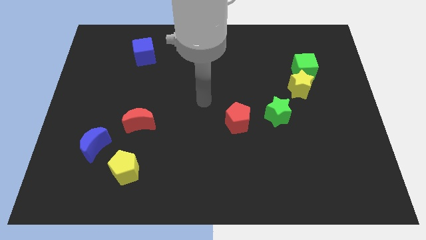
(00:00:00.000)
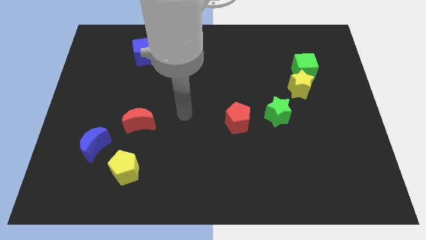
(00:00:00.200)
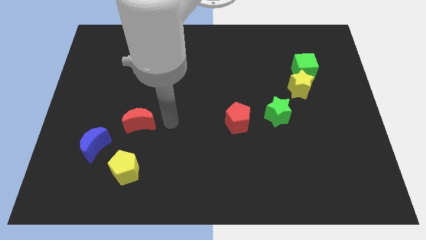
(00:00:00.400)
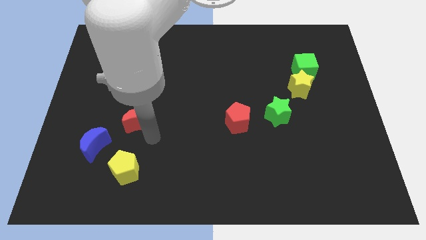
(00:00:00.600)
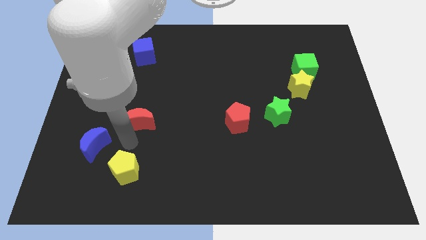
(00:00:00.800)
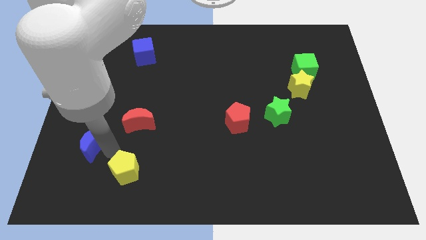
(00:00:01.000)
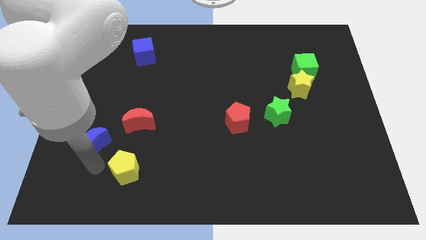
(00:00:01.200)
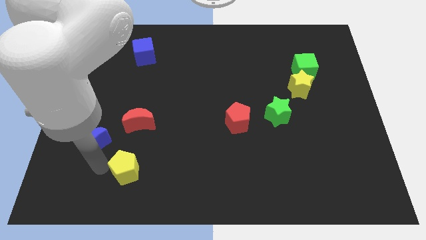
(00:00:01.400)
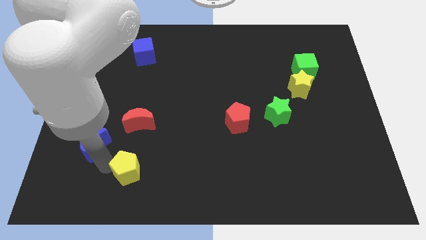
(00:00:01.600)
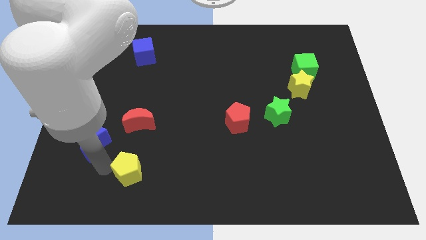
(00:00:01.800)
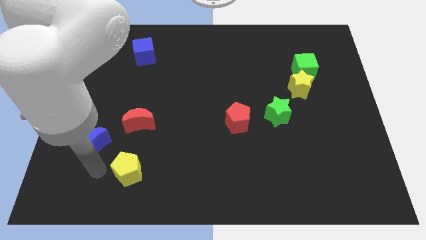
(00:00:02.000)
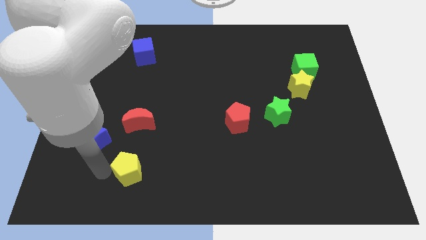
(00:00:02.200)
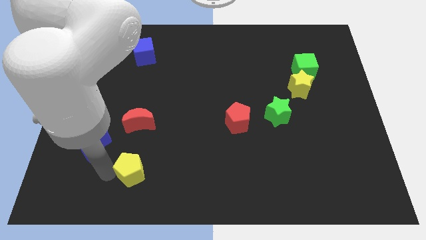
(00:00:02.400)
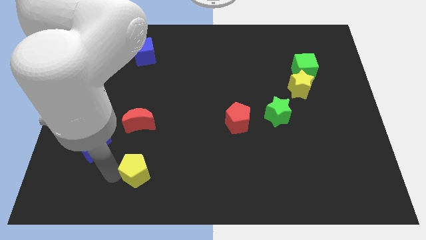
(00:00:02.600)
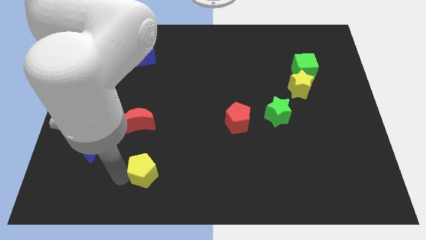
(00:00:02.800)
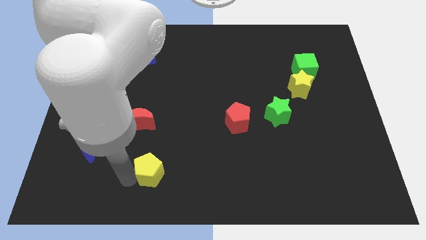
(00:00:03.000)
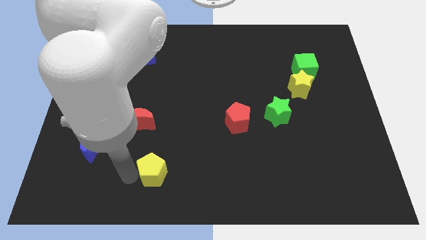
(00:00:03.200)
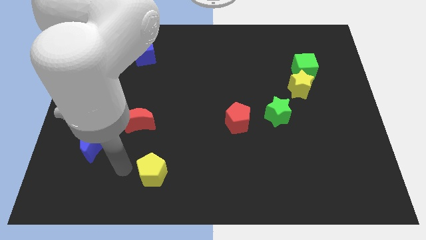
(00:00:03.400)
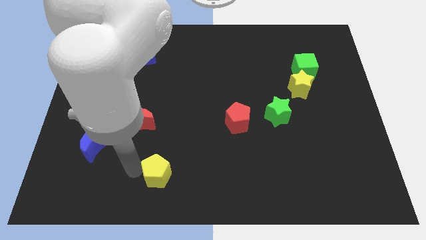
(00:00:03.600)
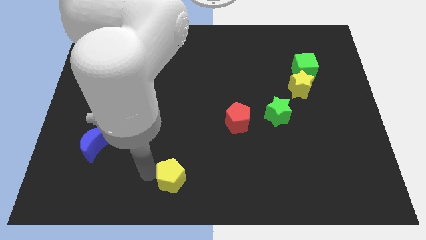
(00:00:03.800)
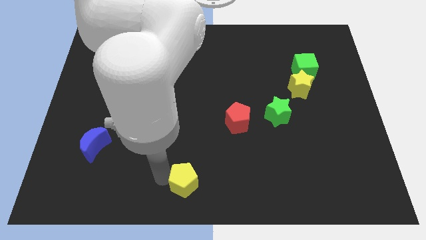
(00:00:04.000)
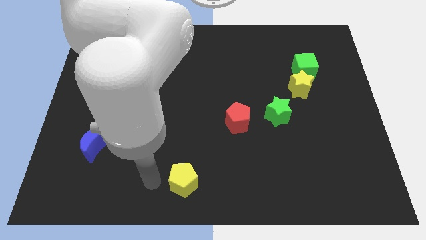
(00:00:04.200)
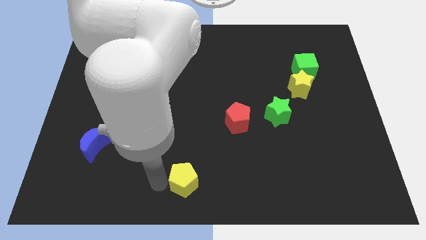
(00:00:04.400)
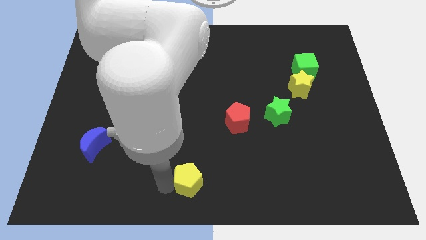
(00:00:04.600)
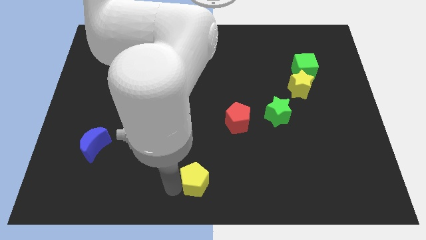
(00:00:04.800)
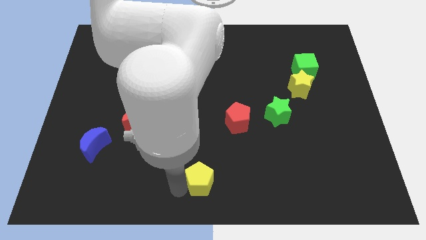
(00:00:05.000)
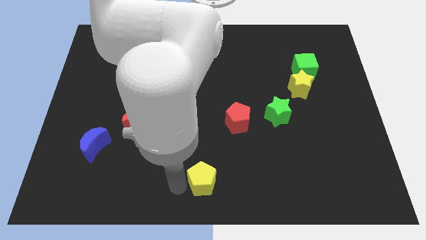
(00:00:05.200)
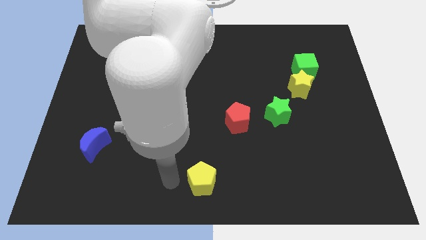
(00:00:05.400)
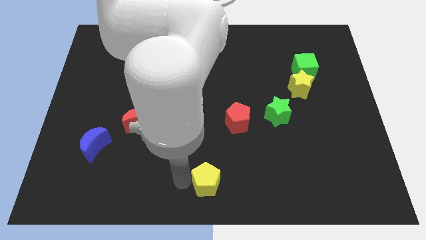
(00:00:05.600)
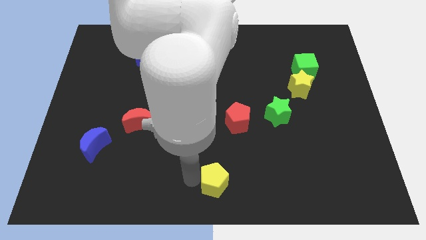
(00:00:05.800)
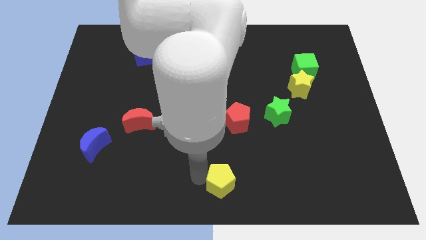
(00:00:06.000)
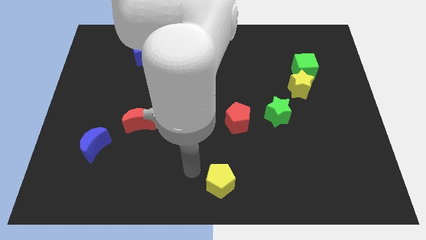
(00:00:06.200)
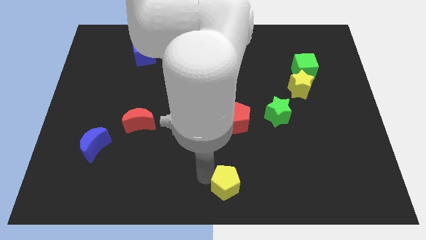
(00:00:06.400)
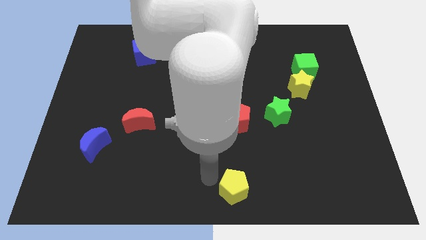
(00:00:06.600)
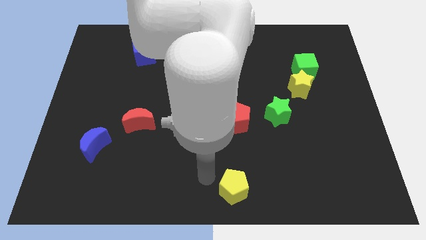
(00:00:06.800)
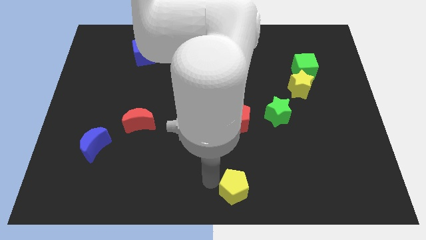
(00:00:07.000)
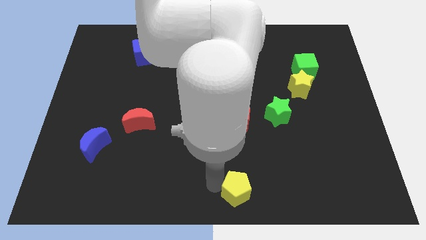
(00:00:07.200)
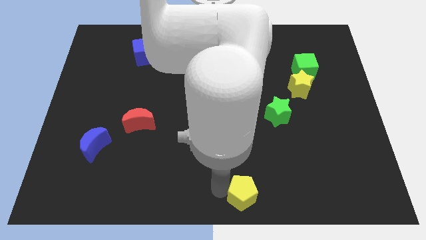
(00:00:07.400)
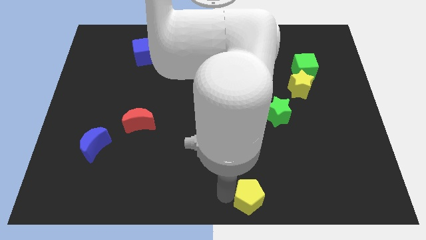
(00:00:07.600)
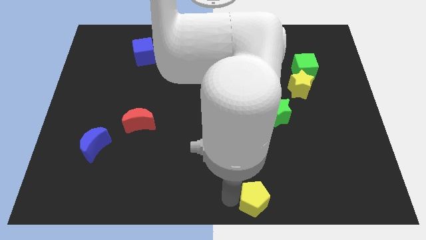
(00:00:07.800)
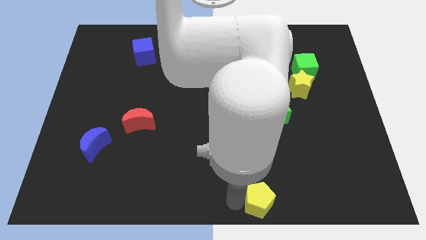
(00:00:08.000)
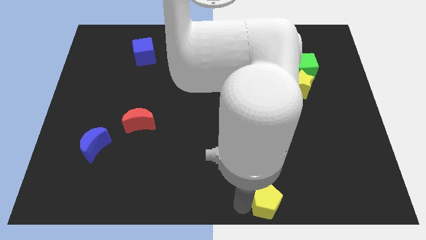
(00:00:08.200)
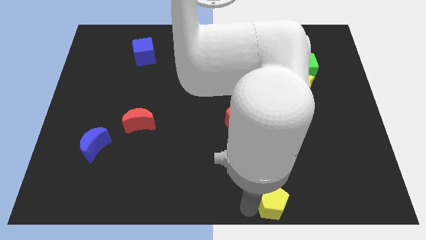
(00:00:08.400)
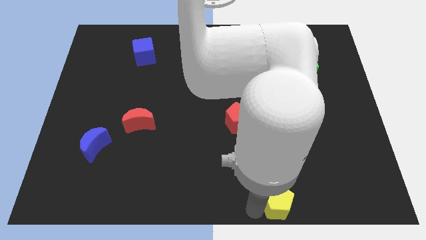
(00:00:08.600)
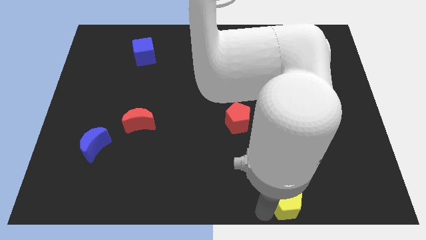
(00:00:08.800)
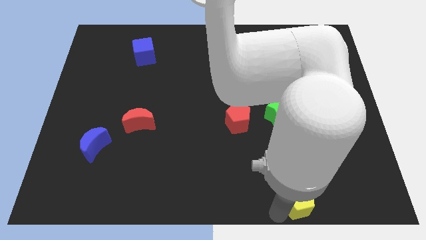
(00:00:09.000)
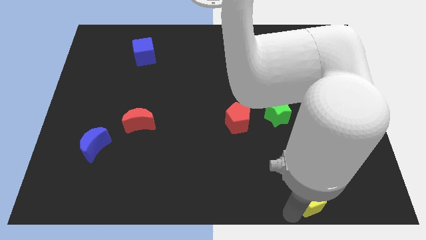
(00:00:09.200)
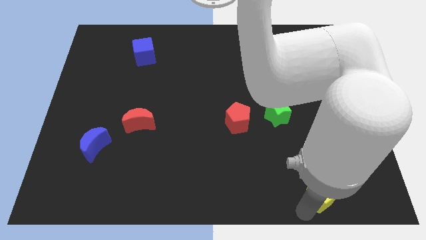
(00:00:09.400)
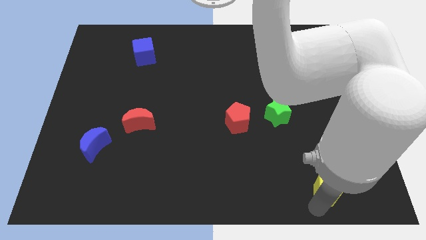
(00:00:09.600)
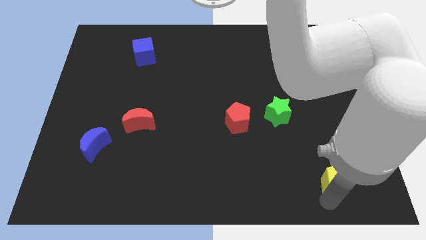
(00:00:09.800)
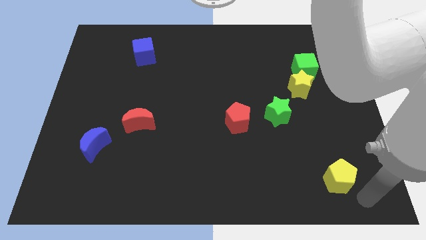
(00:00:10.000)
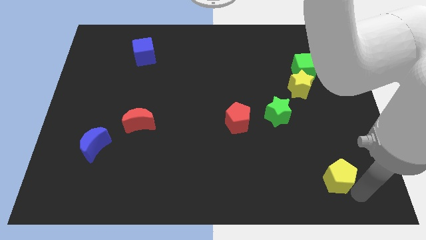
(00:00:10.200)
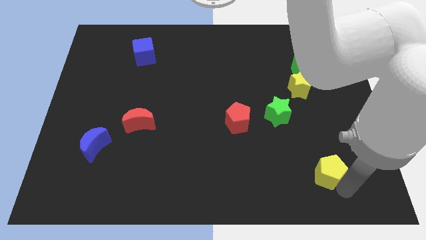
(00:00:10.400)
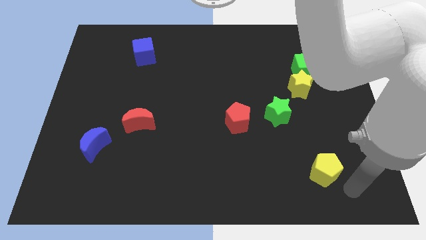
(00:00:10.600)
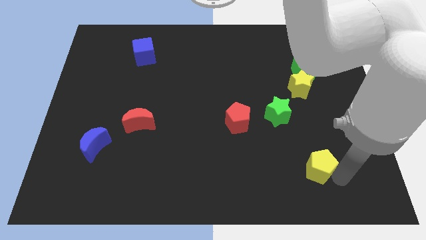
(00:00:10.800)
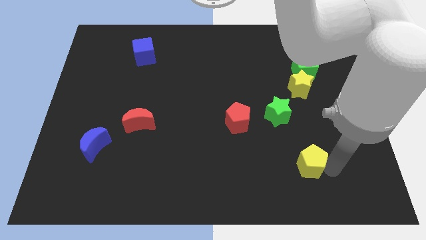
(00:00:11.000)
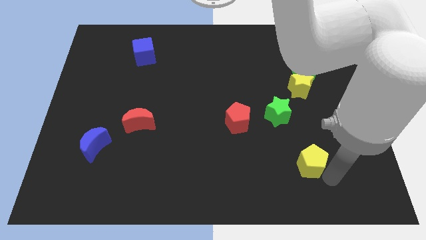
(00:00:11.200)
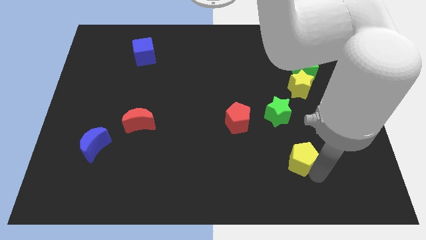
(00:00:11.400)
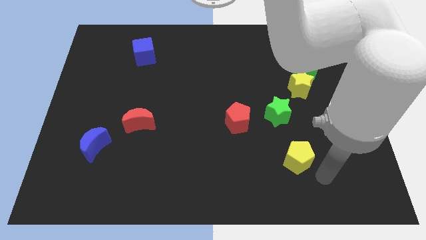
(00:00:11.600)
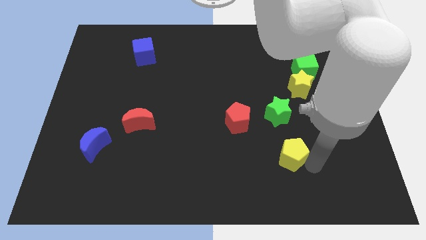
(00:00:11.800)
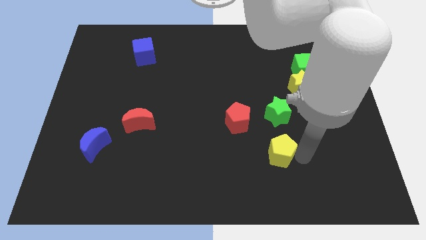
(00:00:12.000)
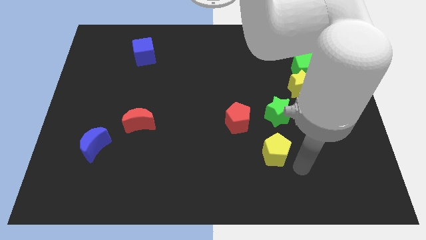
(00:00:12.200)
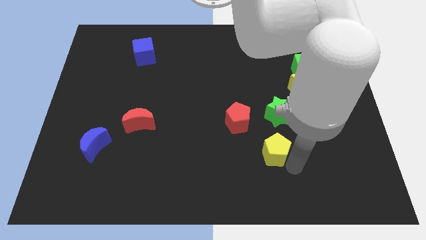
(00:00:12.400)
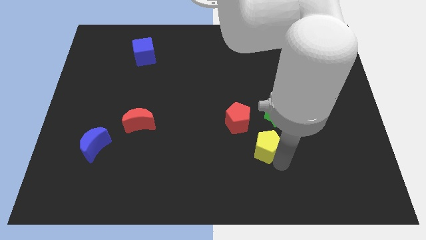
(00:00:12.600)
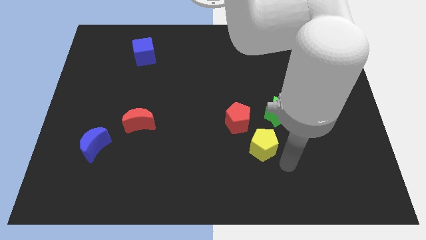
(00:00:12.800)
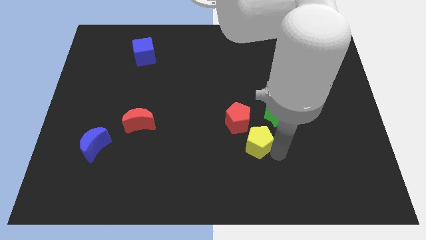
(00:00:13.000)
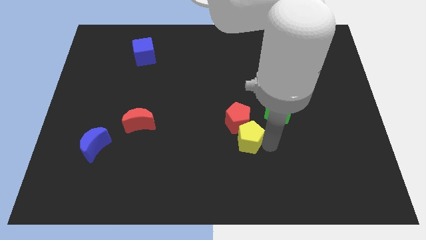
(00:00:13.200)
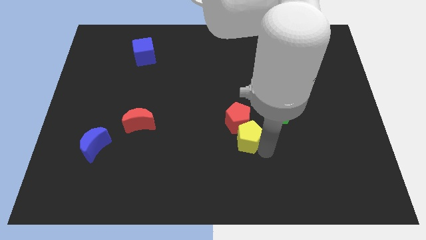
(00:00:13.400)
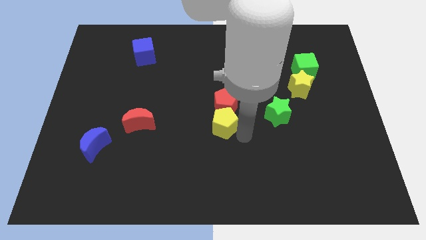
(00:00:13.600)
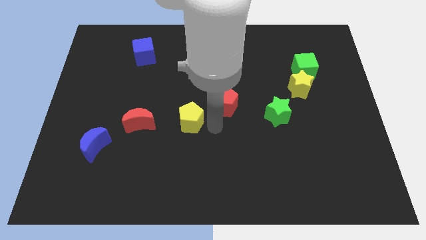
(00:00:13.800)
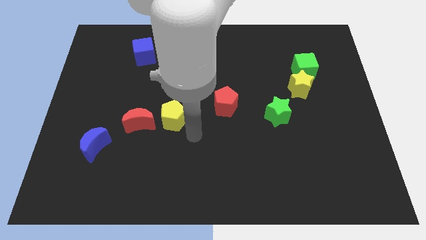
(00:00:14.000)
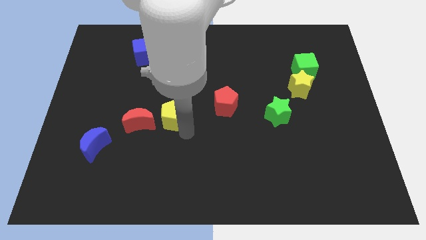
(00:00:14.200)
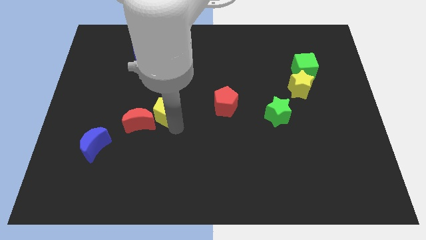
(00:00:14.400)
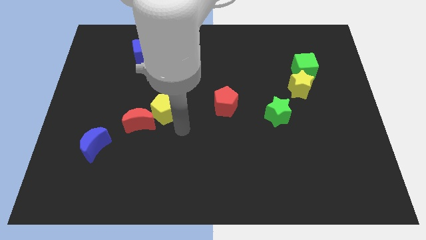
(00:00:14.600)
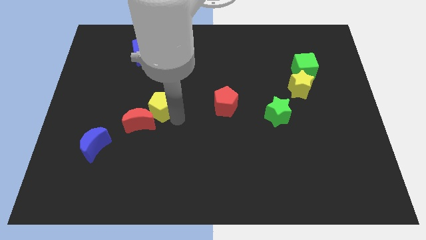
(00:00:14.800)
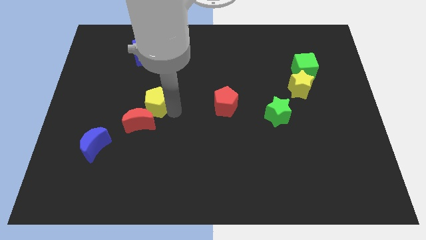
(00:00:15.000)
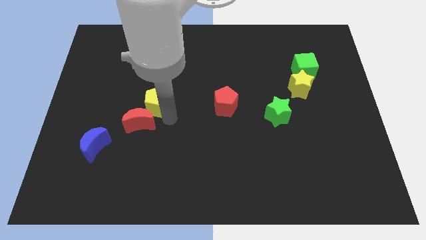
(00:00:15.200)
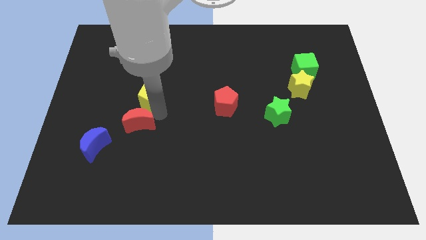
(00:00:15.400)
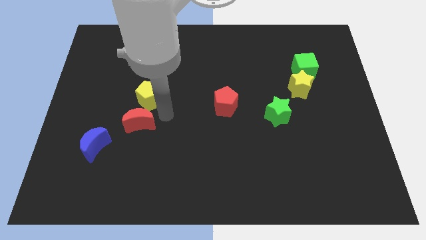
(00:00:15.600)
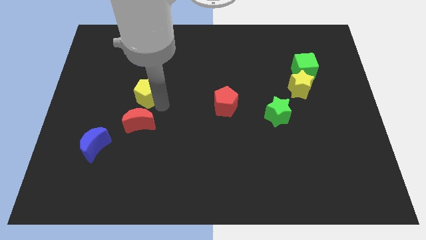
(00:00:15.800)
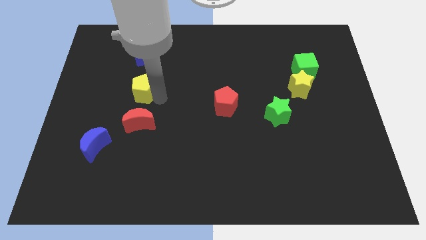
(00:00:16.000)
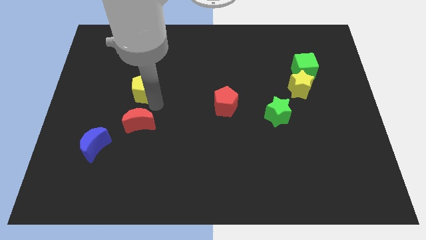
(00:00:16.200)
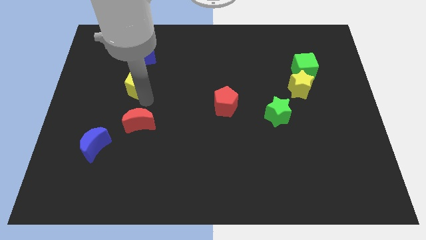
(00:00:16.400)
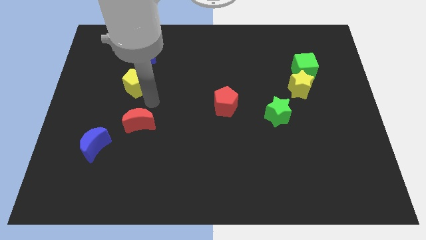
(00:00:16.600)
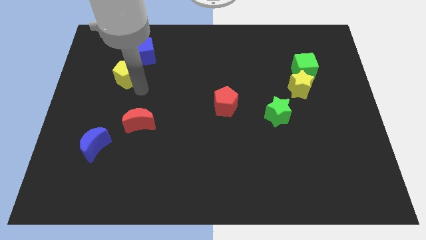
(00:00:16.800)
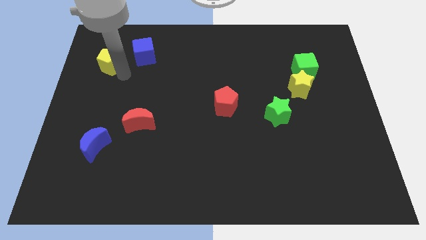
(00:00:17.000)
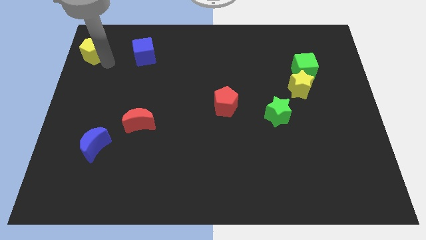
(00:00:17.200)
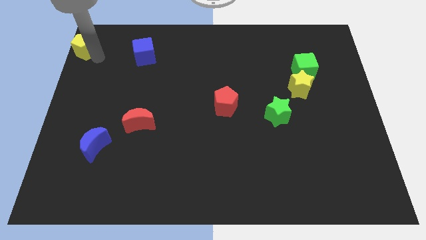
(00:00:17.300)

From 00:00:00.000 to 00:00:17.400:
move the yellow pentagon to the top left of the board
